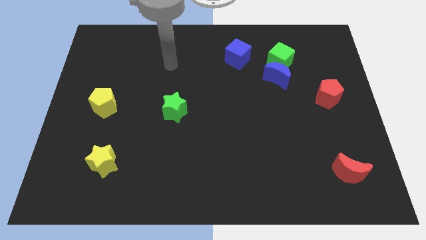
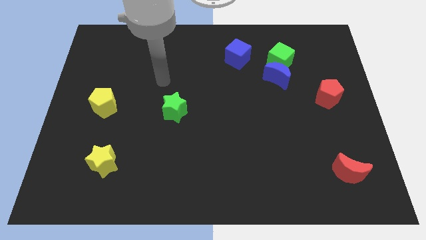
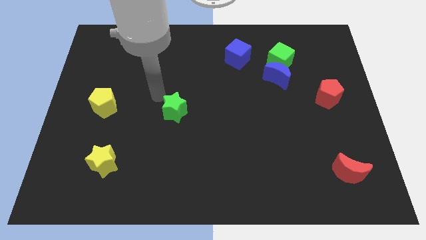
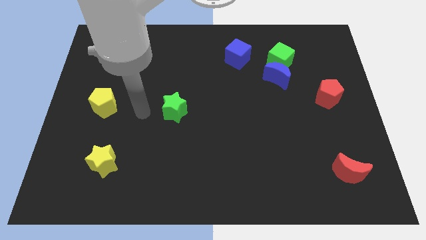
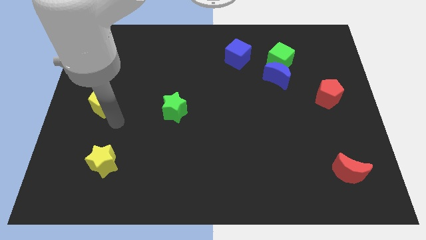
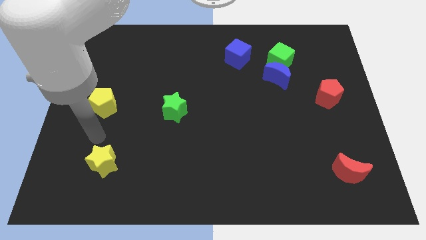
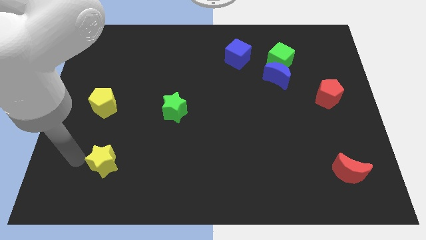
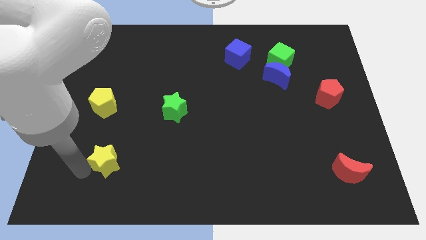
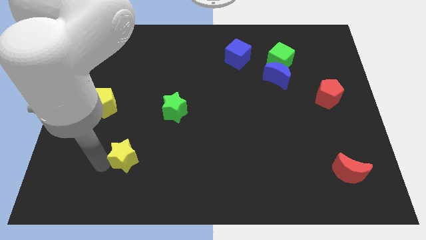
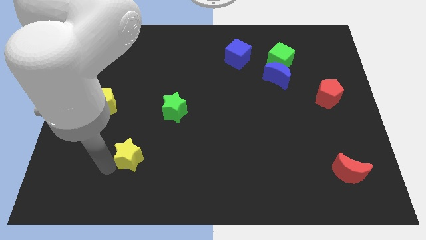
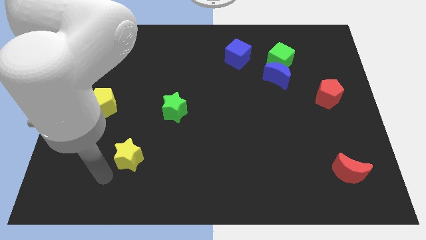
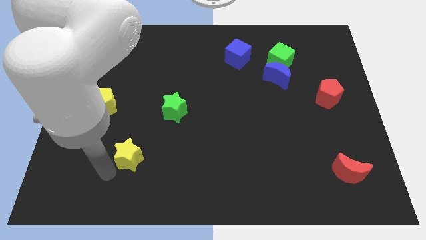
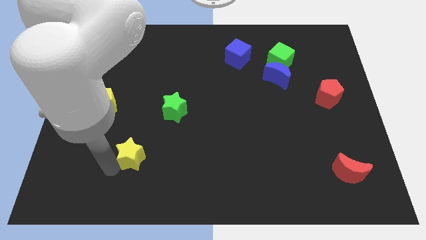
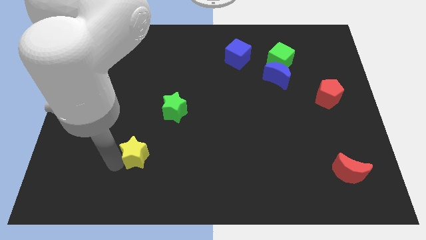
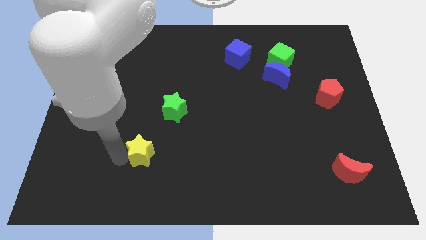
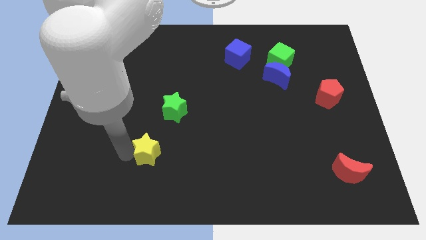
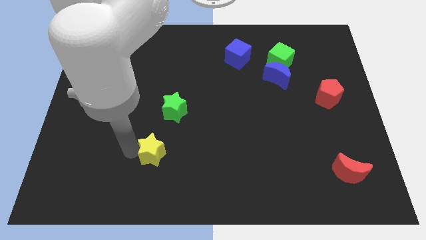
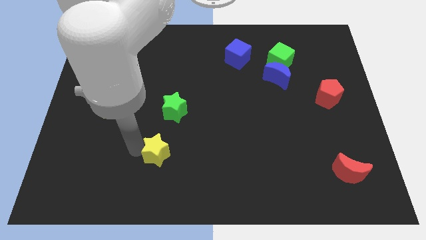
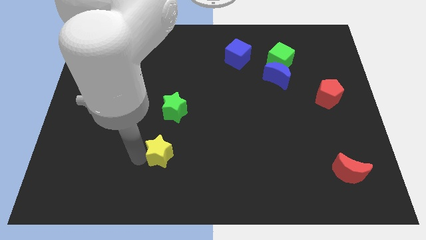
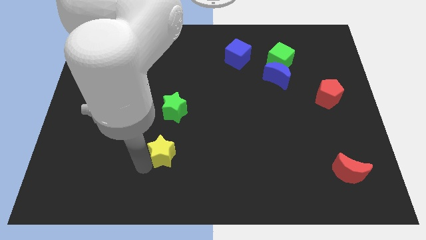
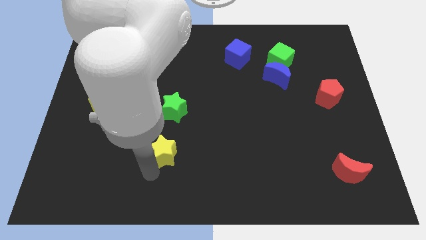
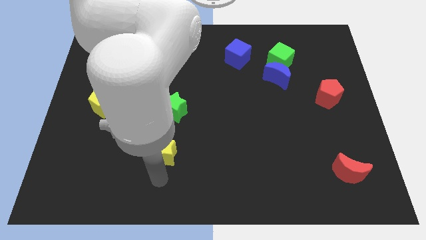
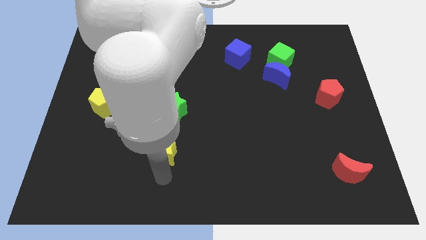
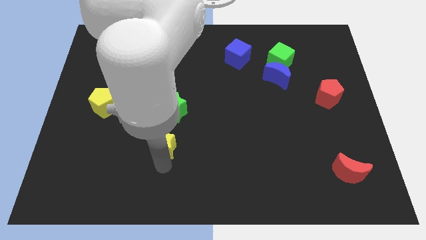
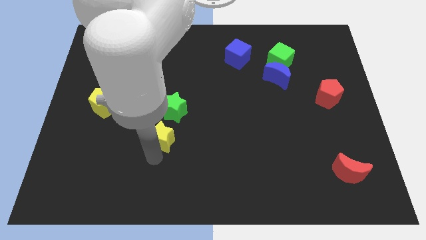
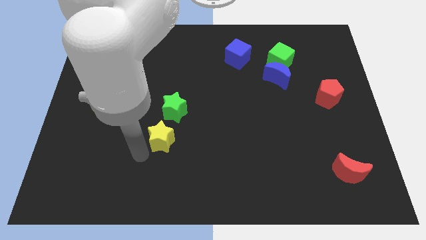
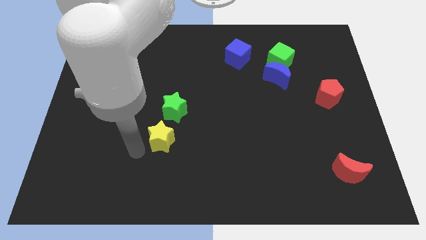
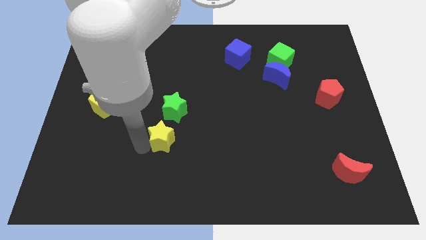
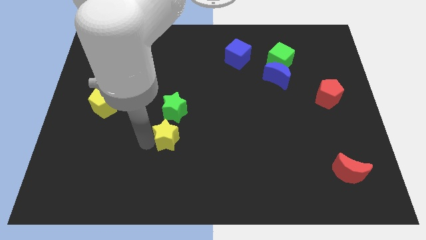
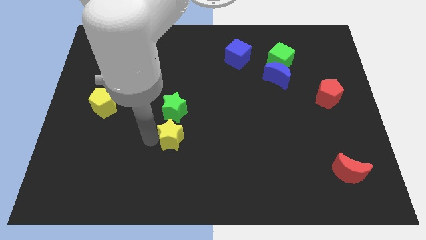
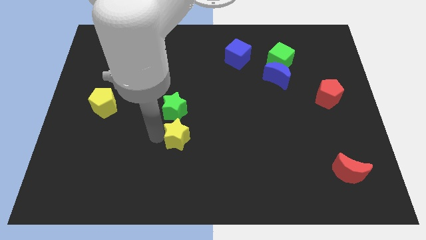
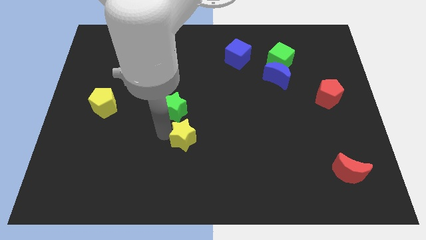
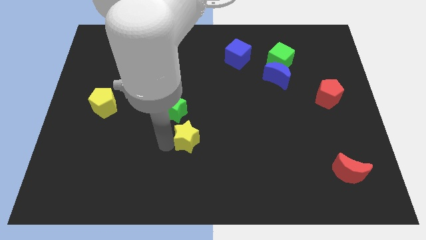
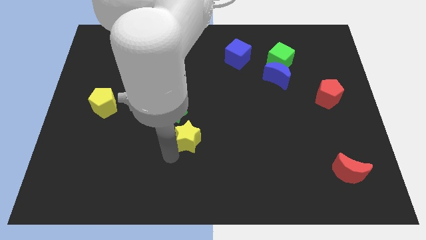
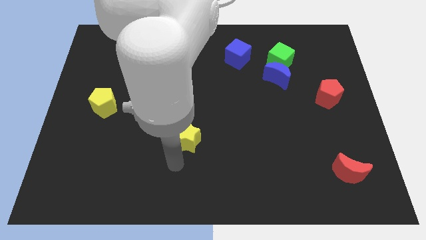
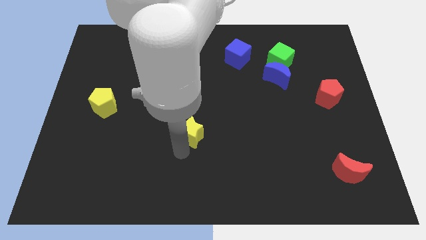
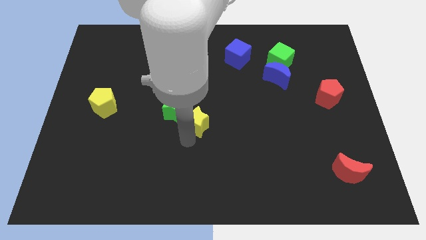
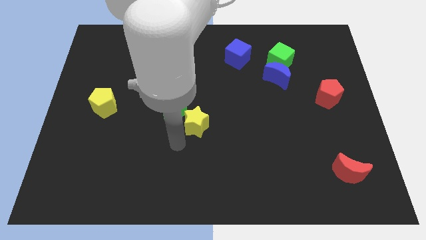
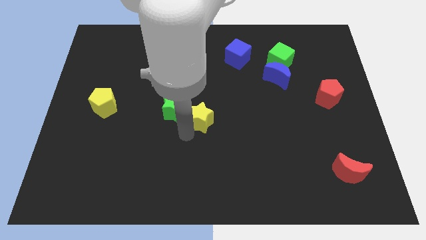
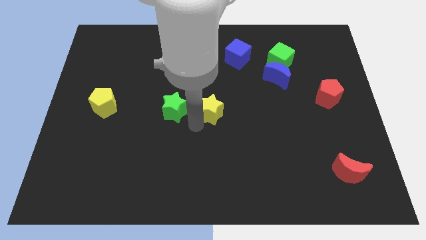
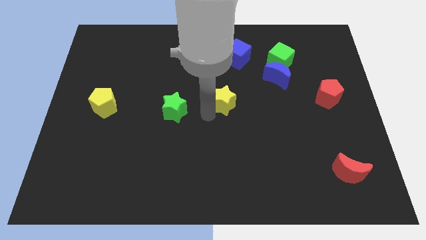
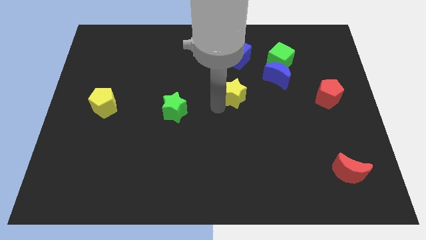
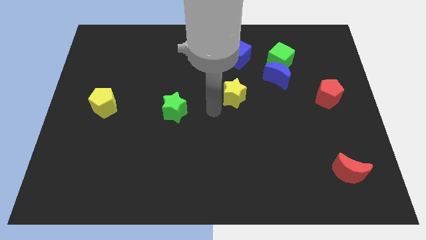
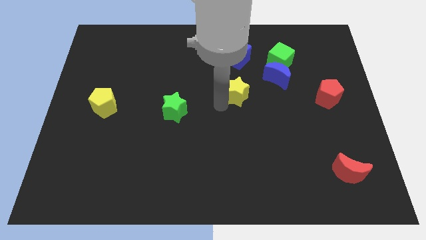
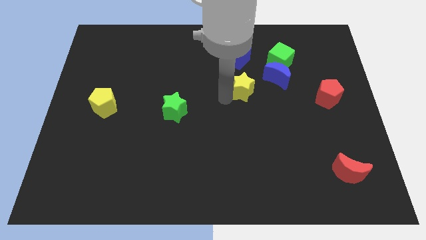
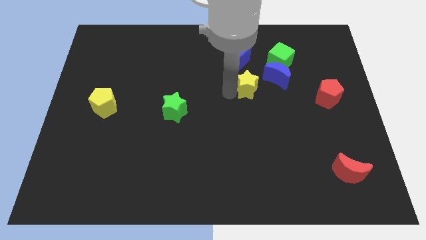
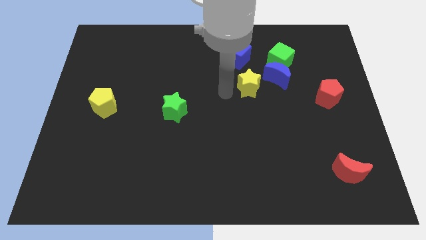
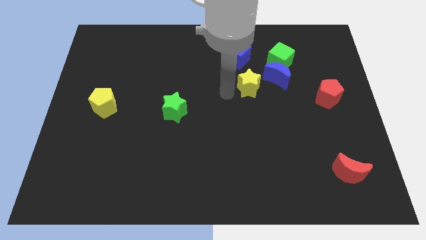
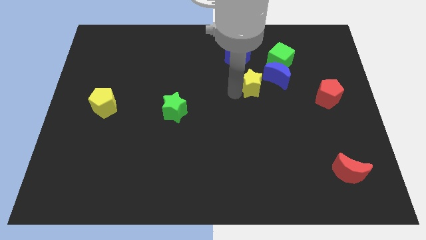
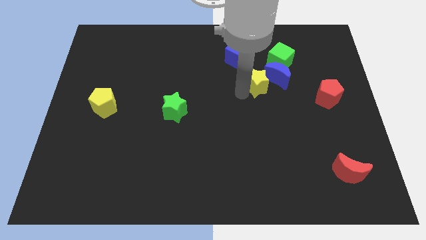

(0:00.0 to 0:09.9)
move the yellow star close to the blue moon

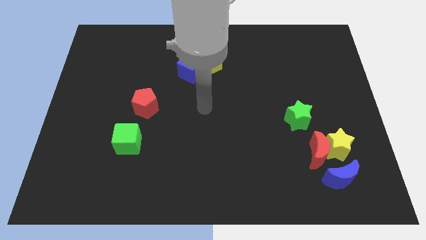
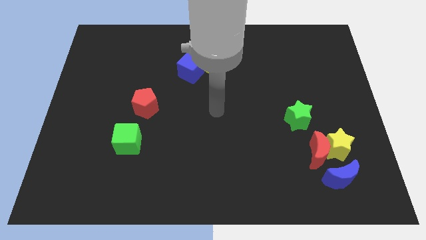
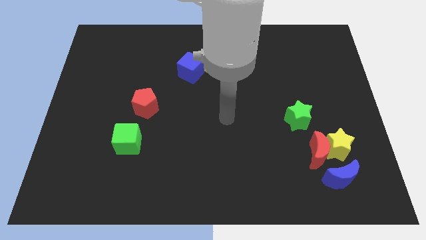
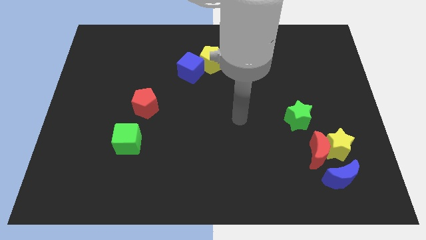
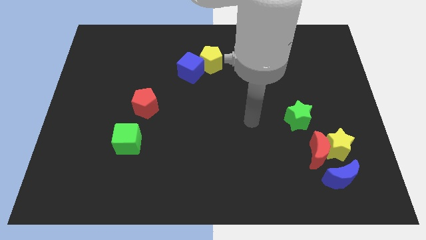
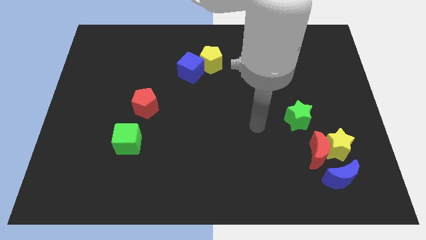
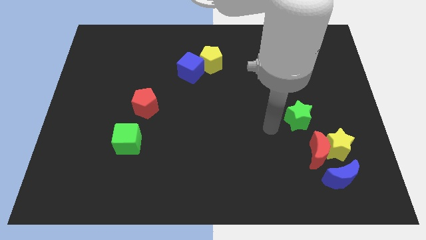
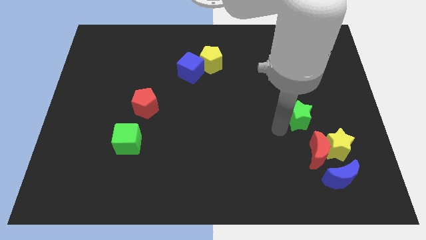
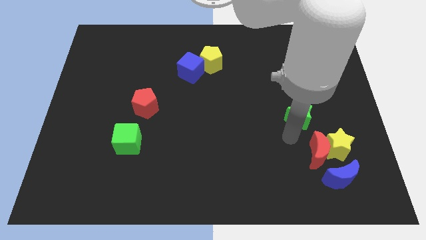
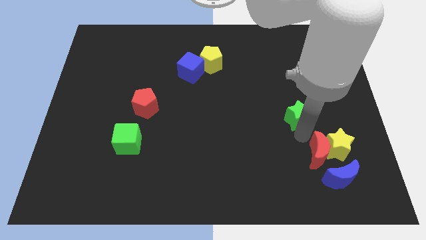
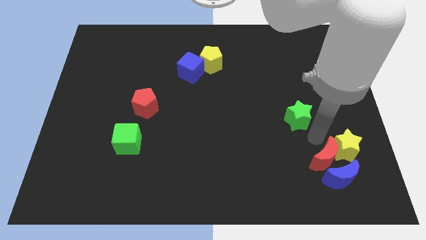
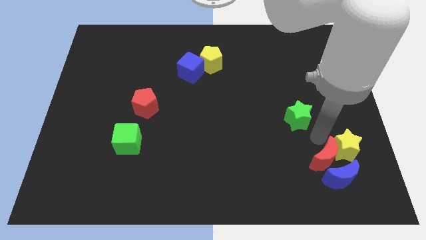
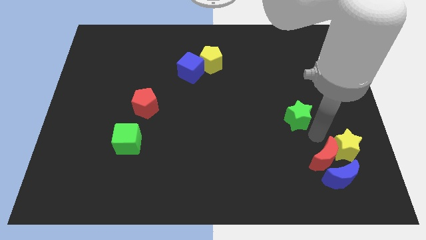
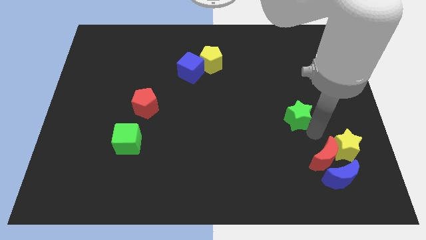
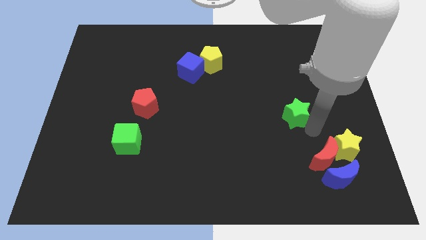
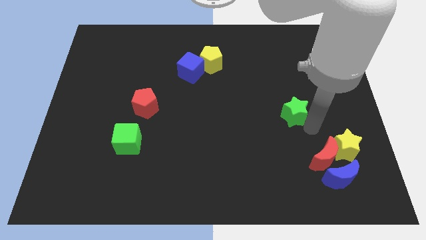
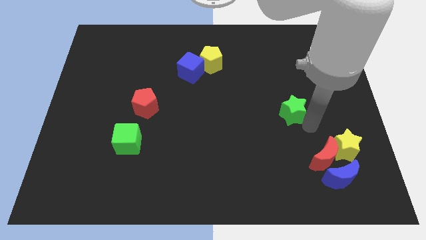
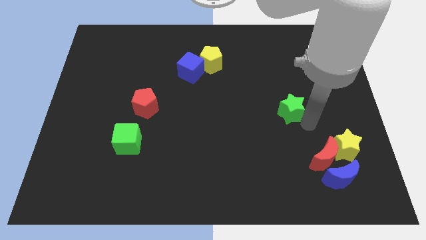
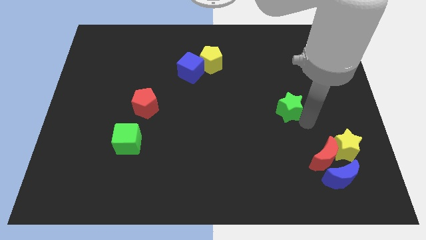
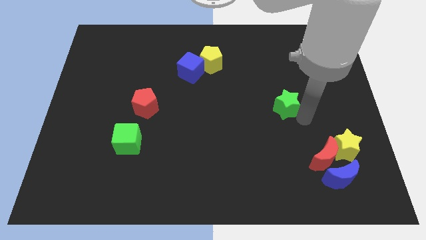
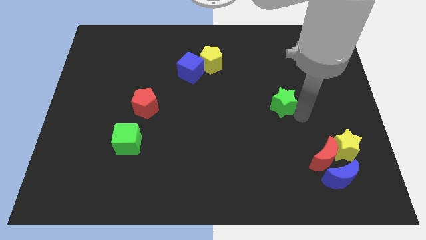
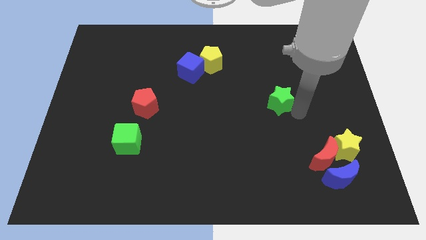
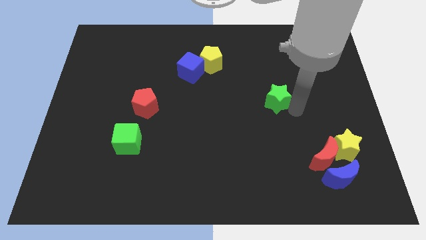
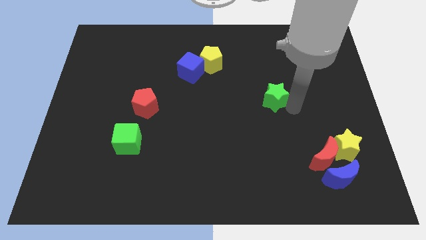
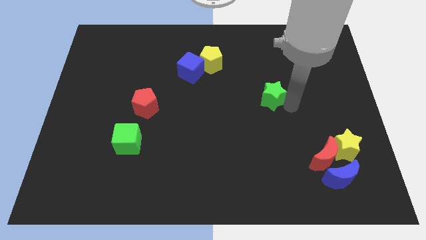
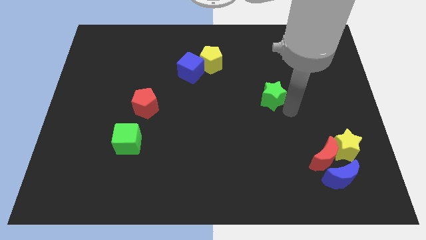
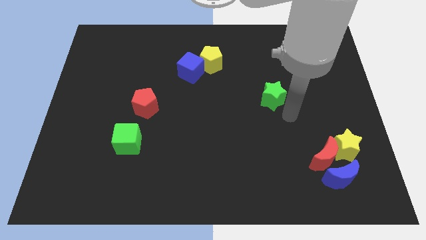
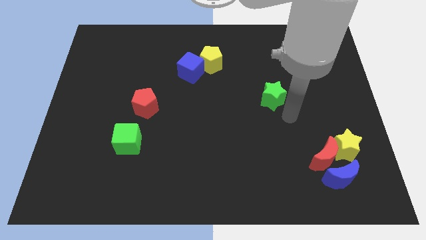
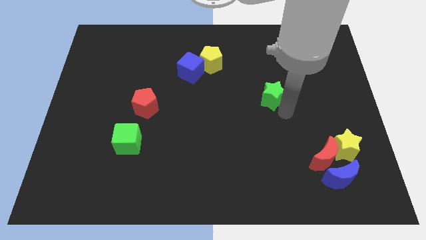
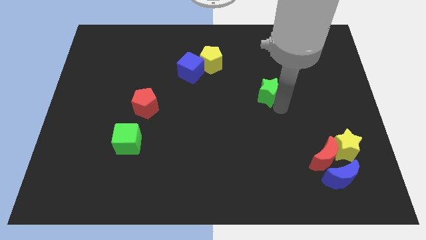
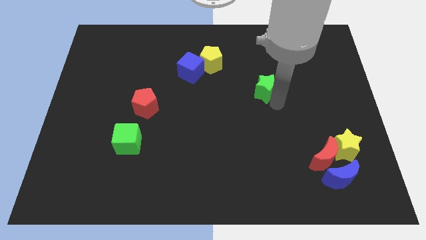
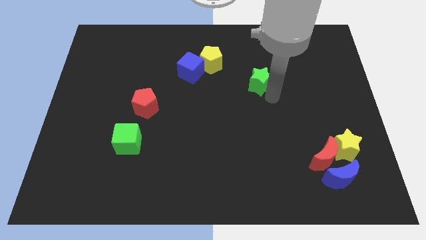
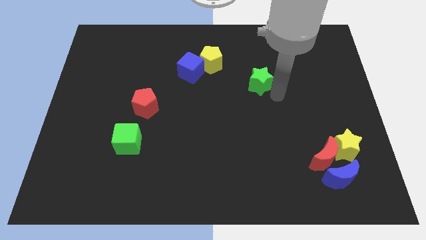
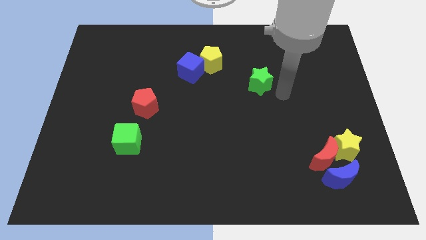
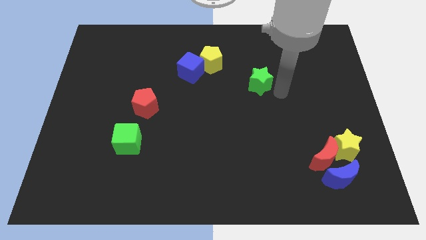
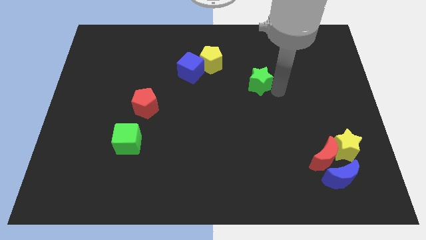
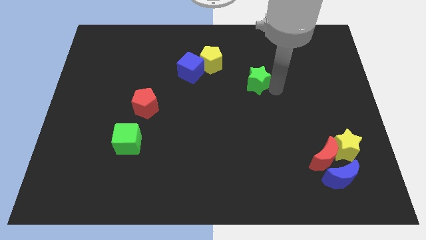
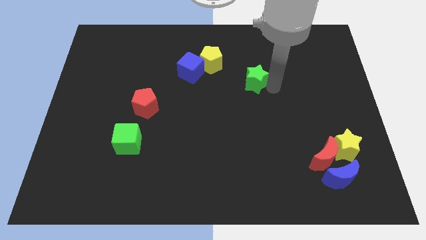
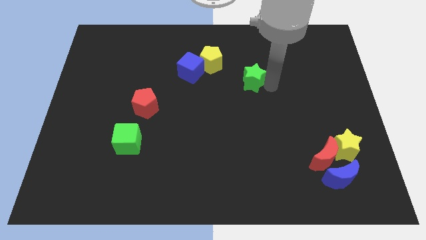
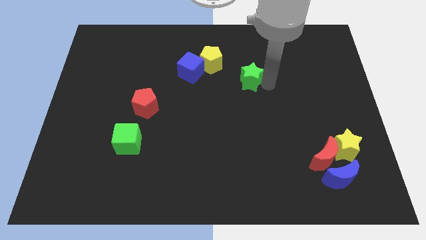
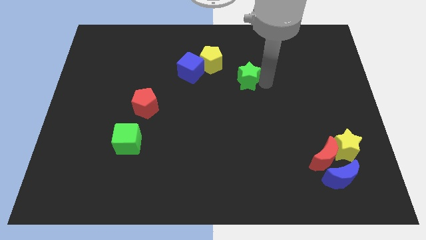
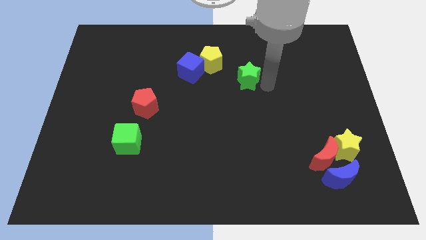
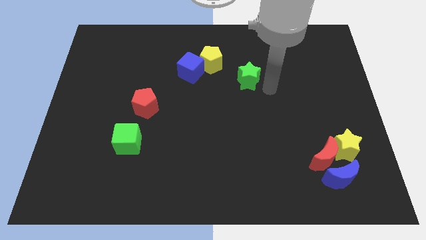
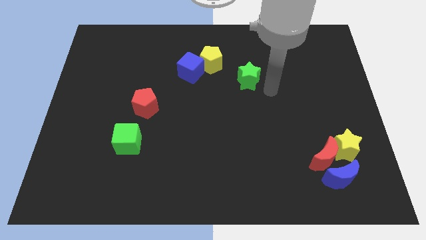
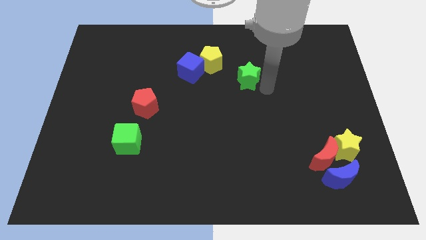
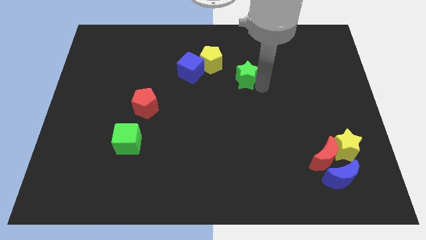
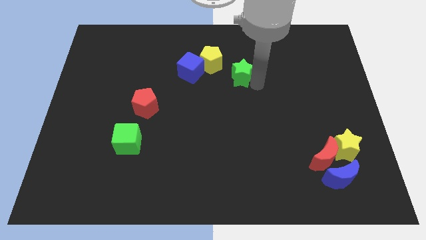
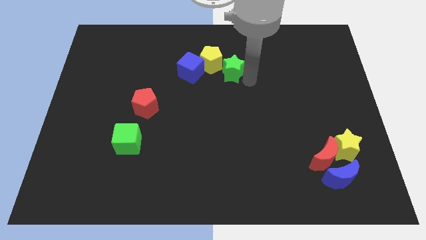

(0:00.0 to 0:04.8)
move the green star close to the yellow pentagon
